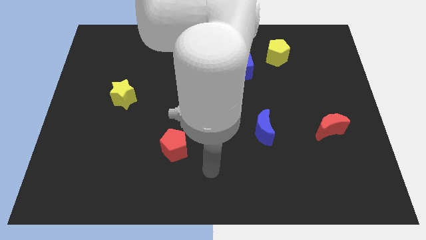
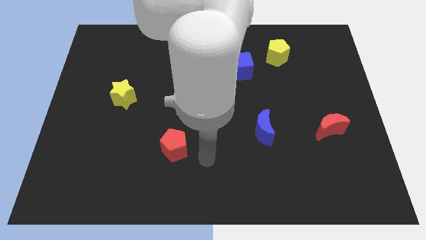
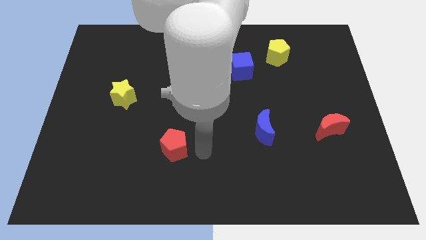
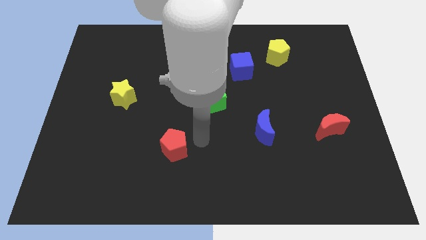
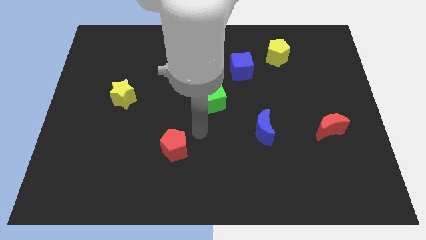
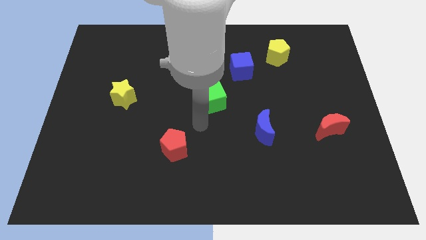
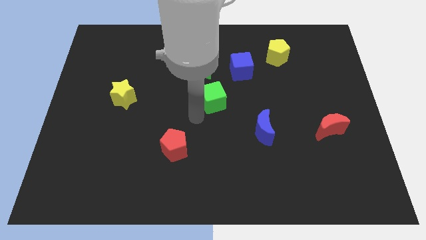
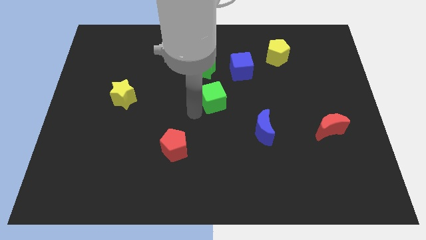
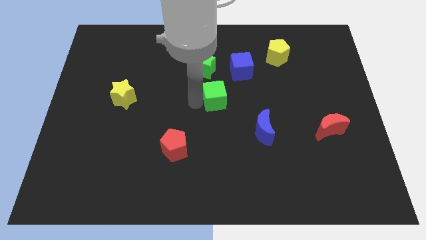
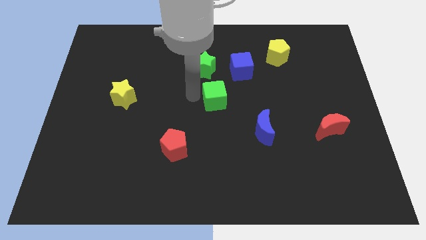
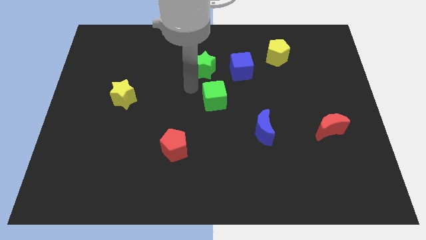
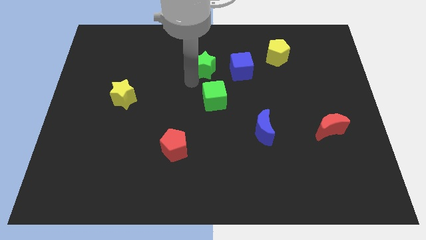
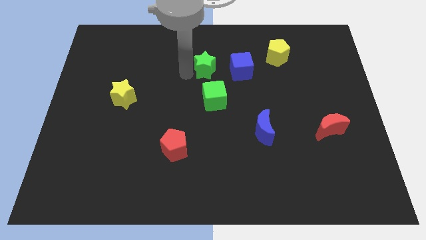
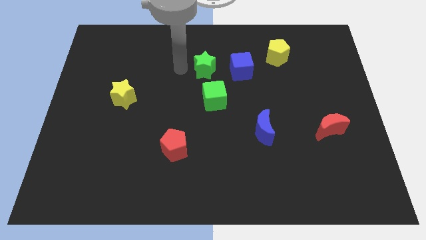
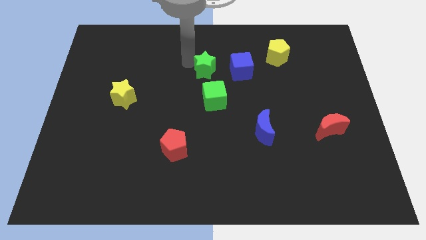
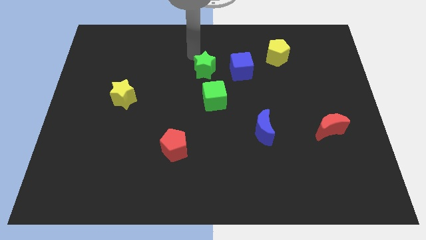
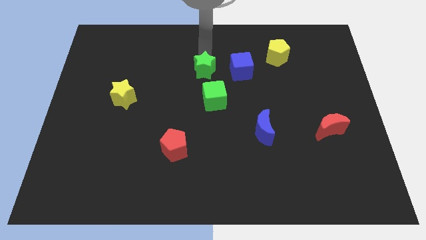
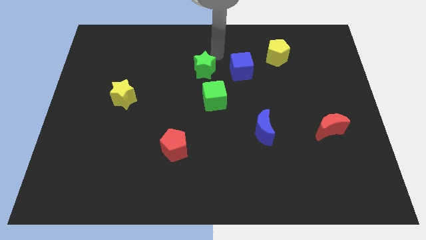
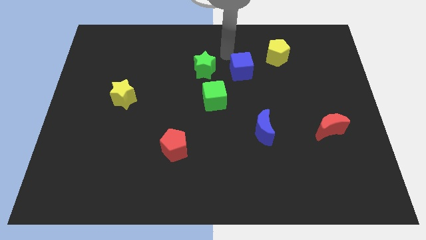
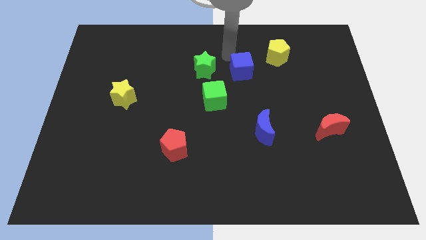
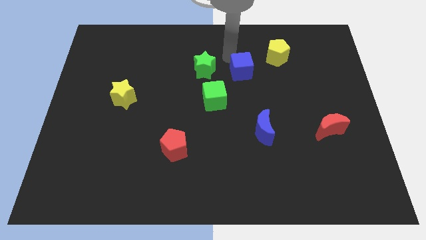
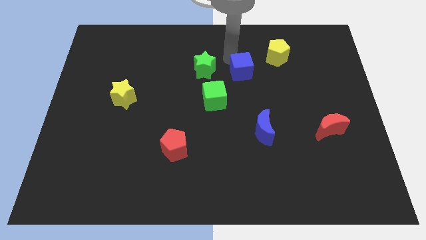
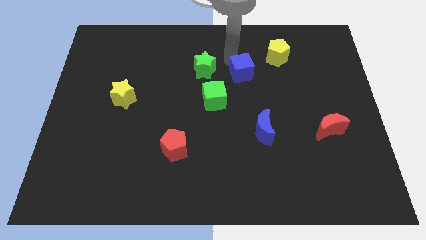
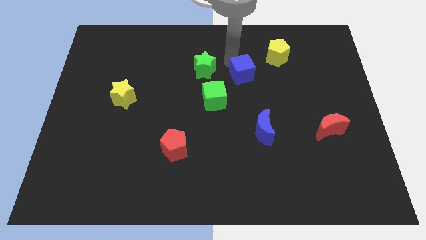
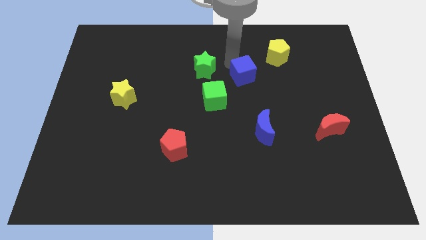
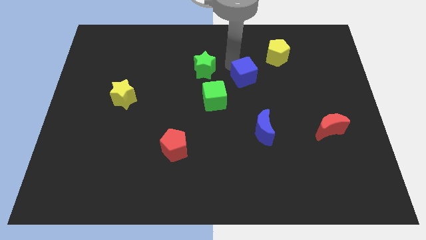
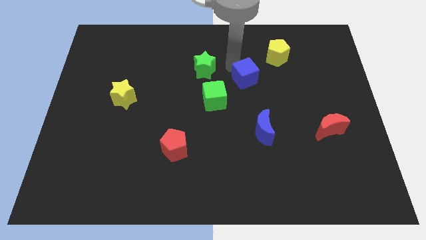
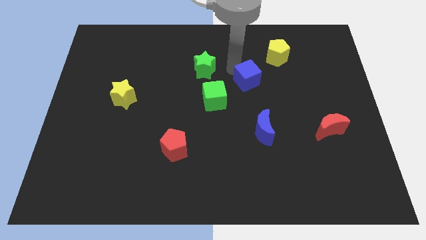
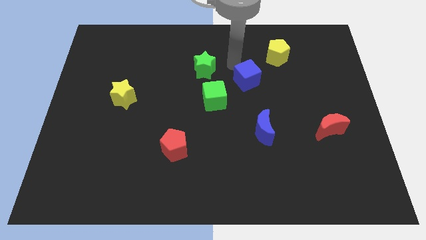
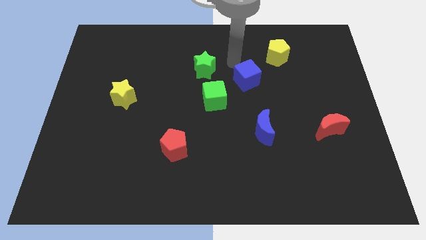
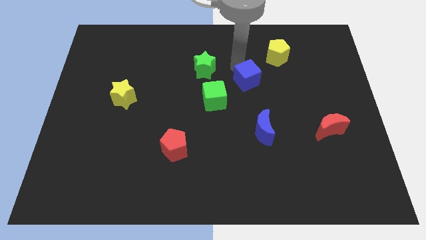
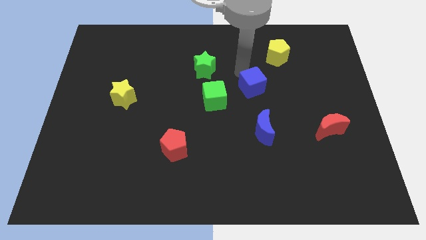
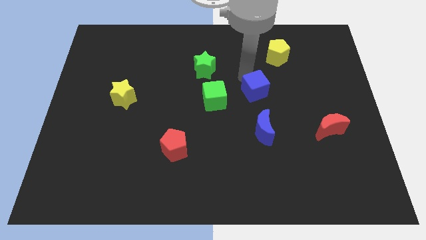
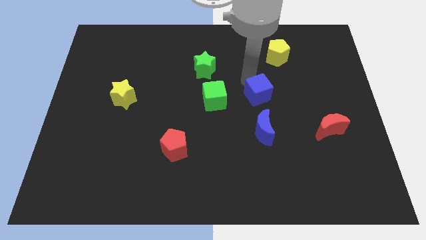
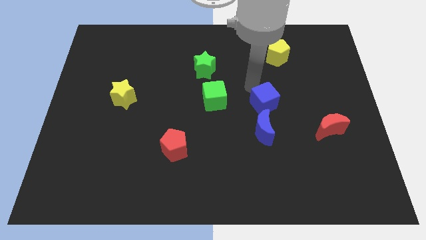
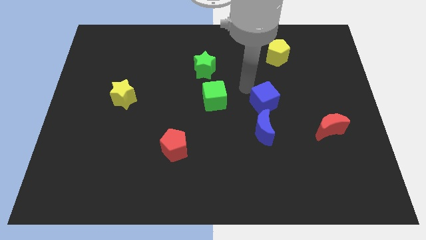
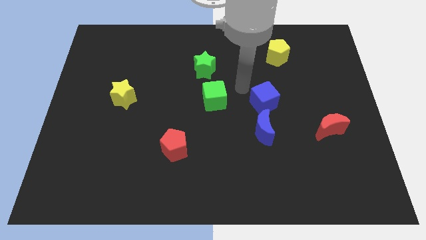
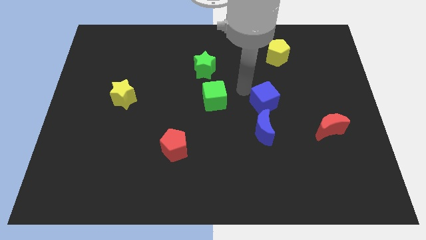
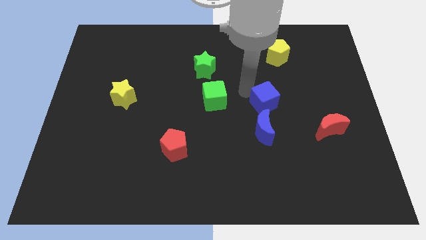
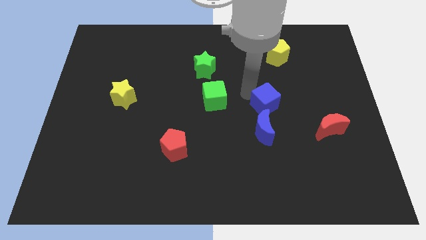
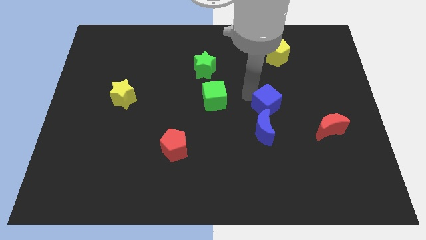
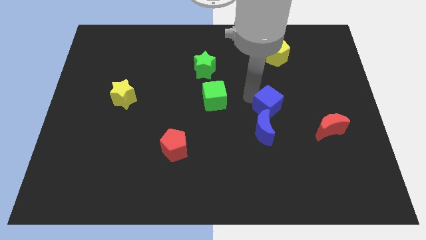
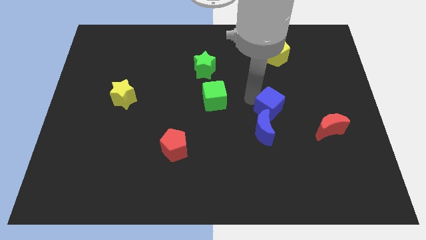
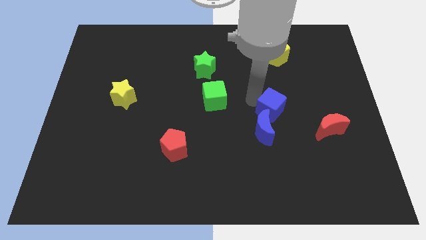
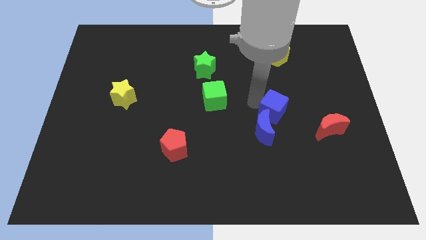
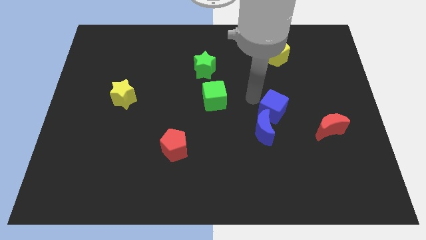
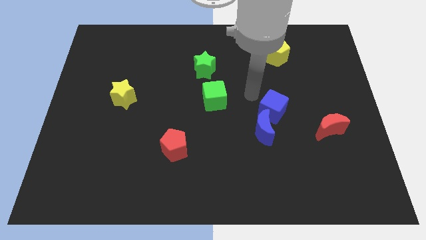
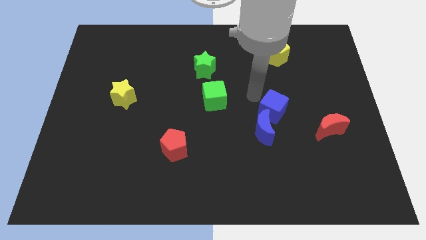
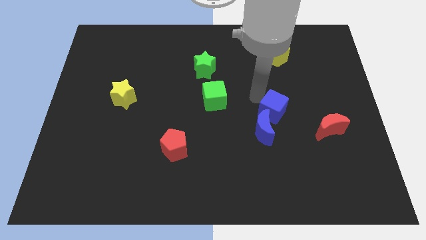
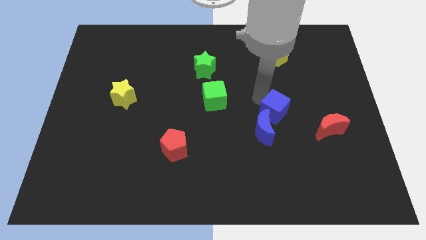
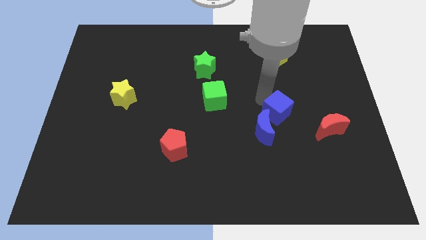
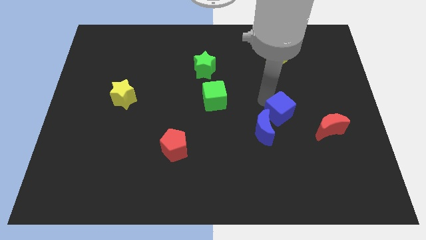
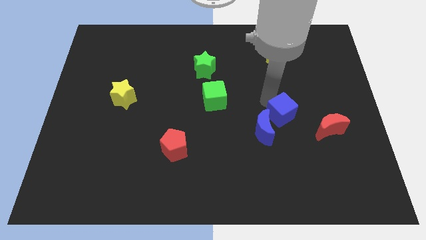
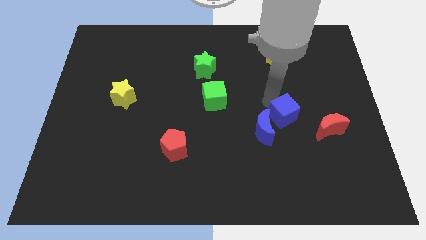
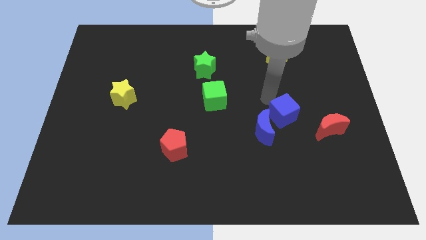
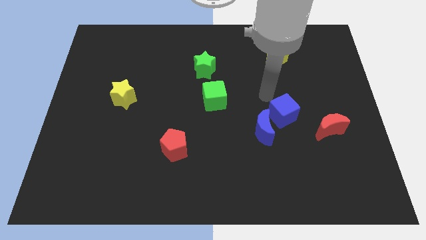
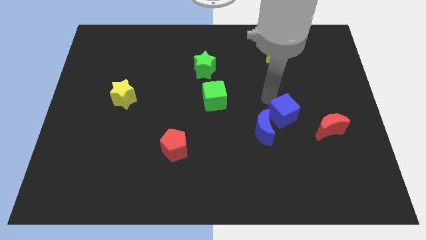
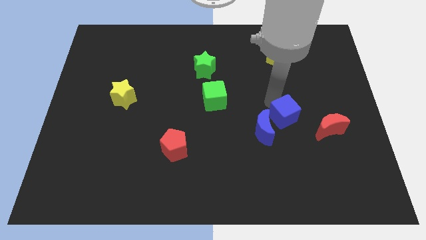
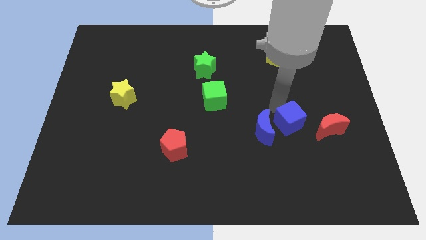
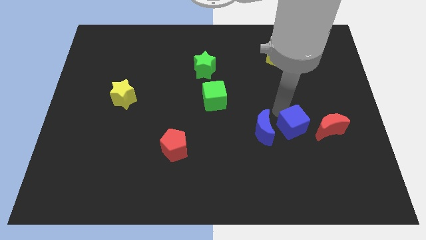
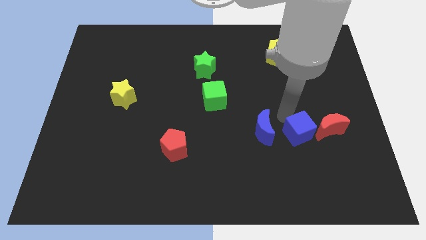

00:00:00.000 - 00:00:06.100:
push the blue cube diagonally down and to the left of the red moon

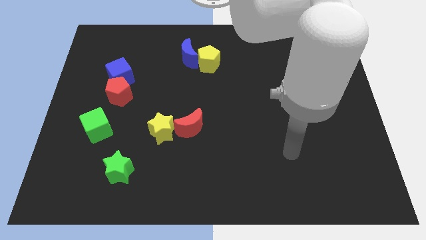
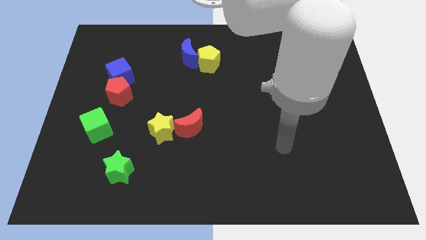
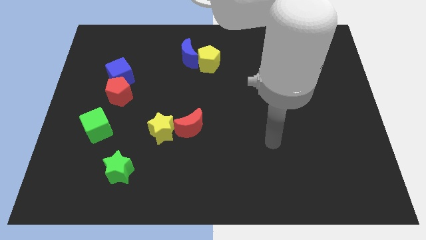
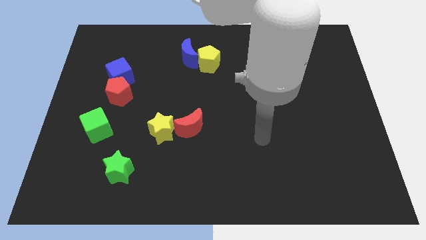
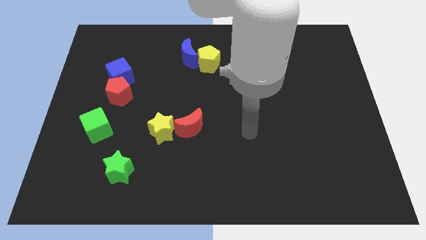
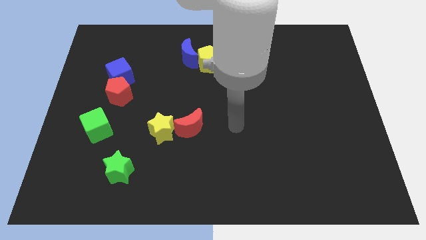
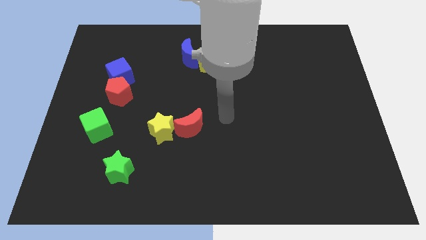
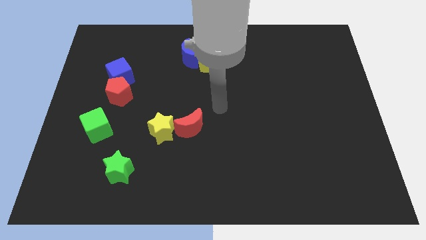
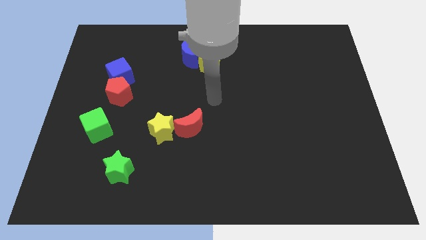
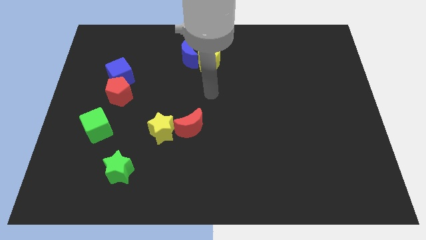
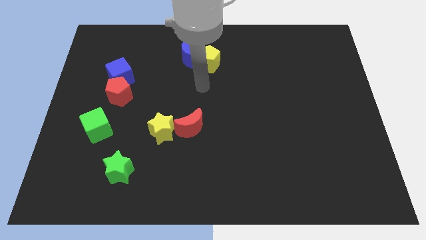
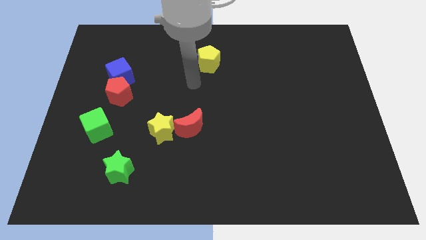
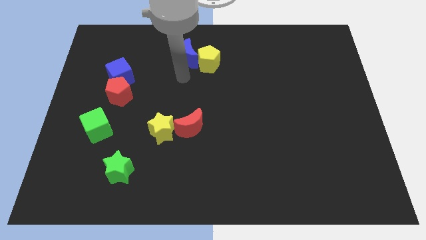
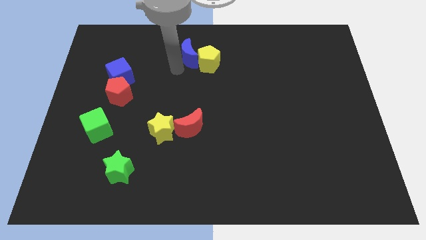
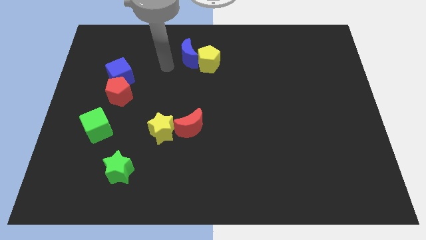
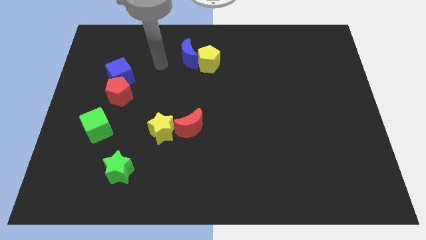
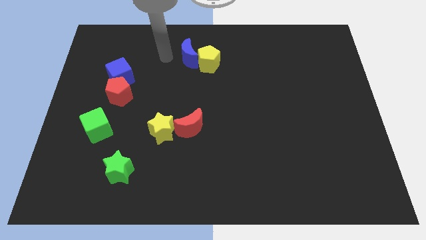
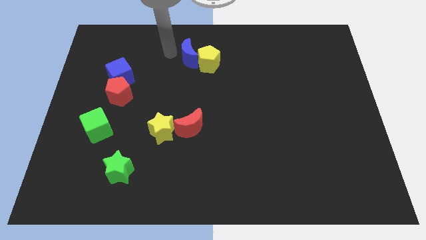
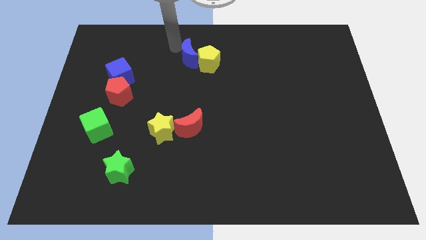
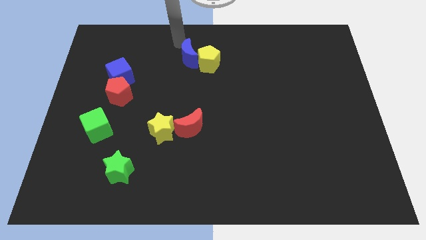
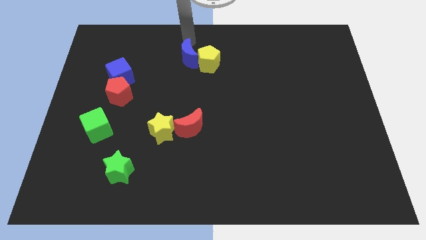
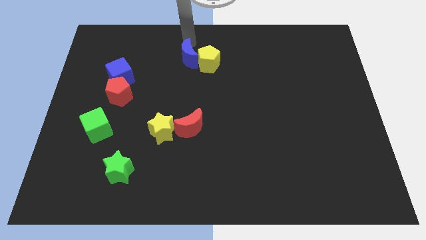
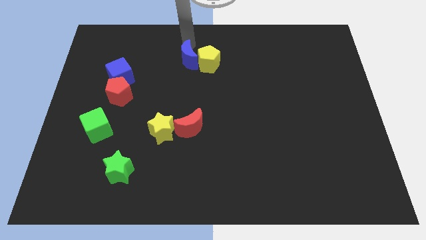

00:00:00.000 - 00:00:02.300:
slide the blue moon diagonally down and to the left of the yellow pentagon
